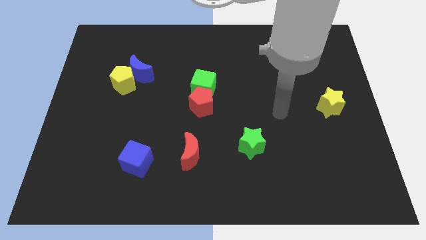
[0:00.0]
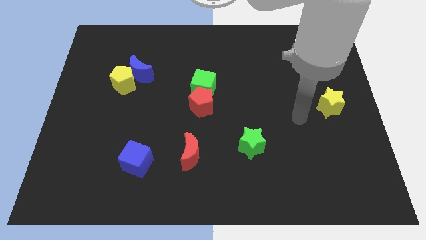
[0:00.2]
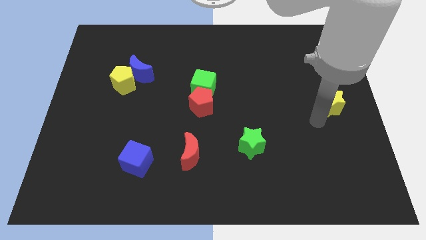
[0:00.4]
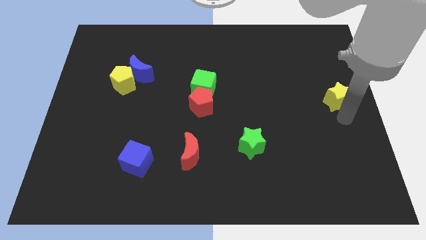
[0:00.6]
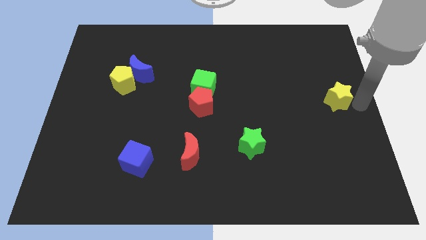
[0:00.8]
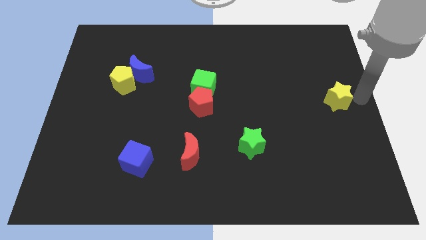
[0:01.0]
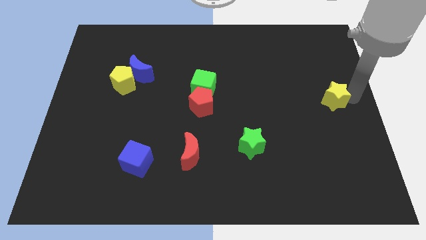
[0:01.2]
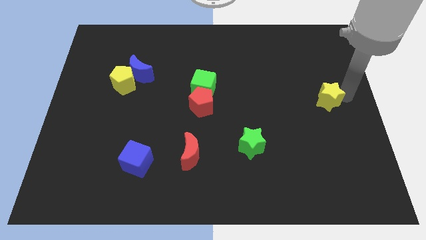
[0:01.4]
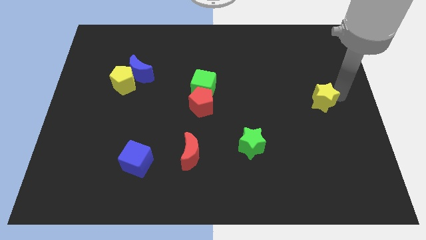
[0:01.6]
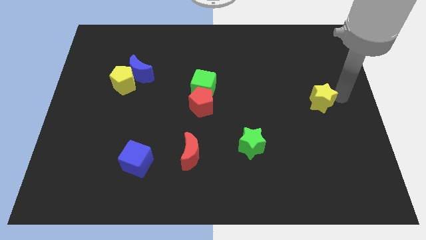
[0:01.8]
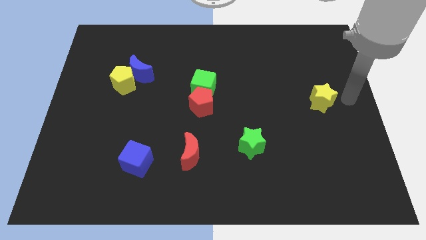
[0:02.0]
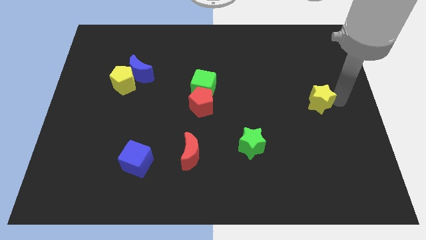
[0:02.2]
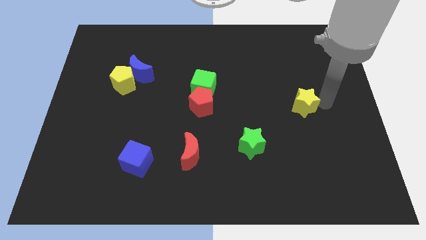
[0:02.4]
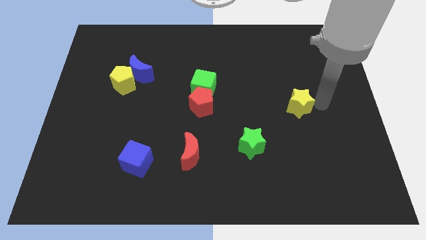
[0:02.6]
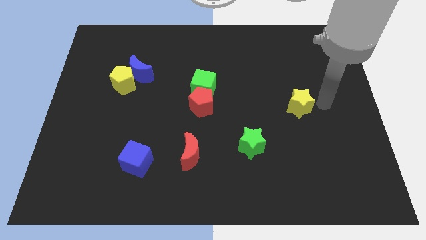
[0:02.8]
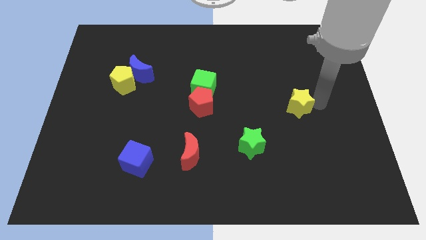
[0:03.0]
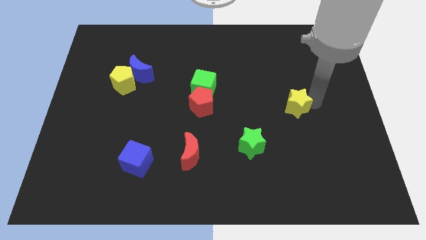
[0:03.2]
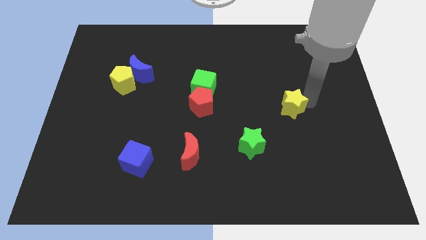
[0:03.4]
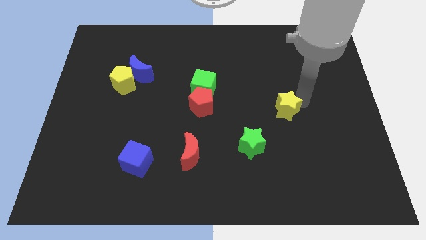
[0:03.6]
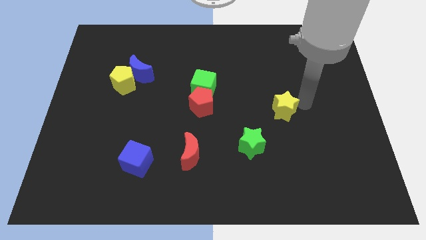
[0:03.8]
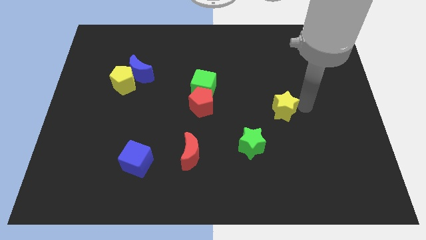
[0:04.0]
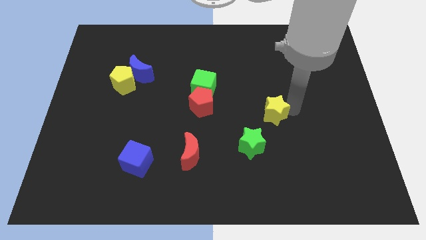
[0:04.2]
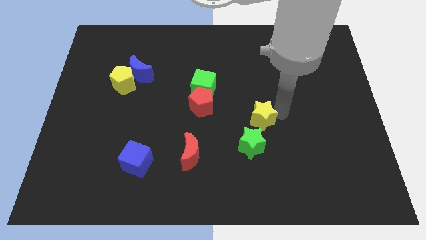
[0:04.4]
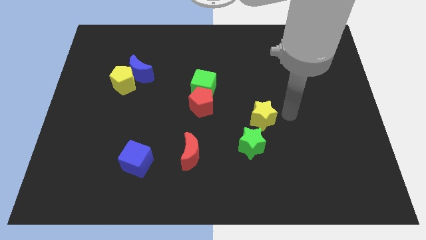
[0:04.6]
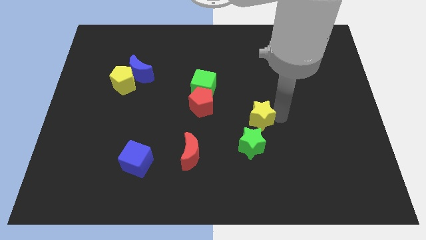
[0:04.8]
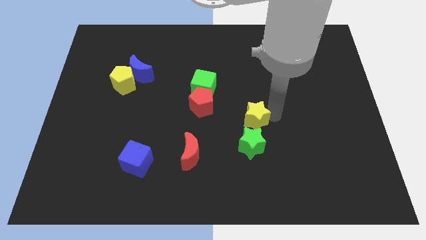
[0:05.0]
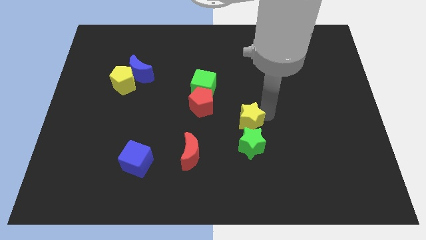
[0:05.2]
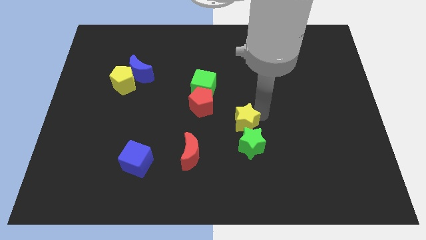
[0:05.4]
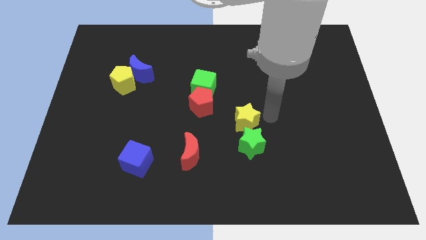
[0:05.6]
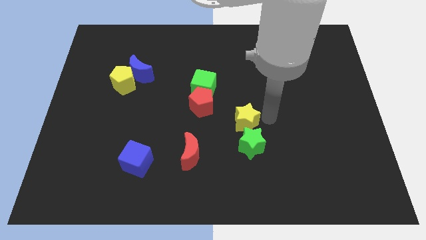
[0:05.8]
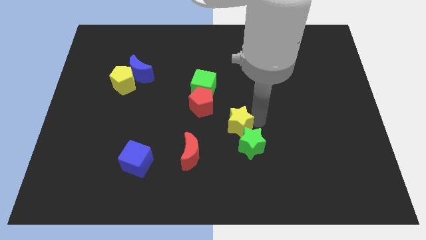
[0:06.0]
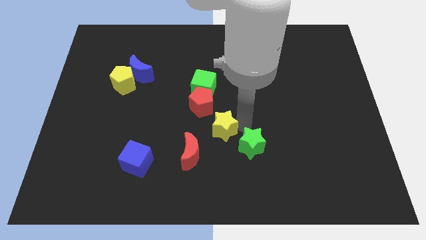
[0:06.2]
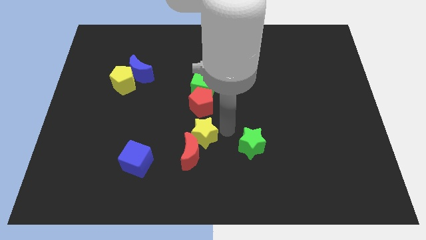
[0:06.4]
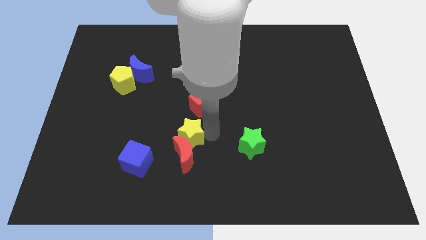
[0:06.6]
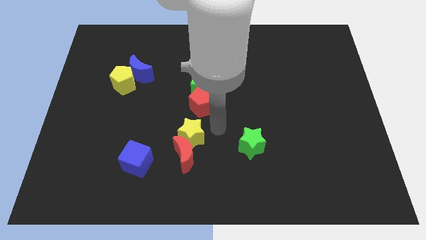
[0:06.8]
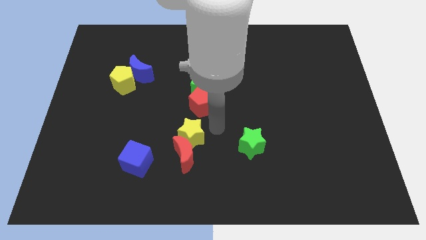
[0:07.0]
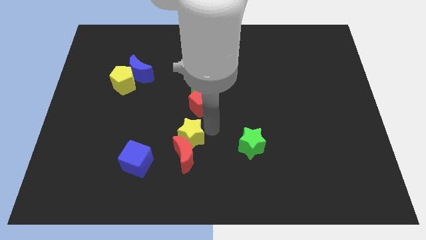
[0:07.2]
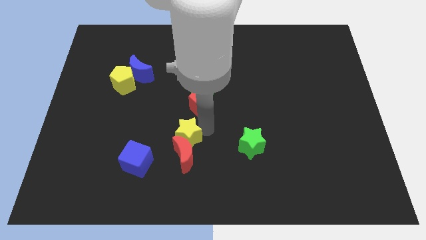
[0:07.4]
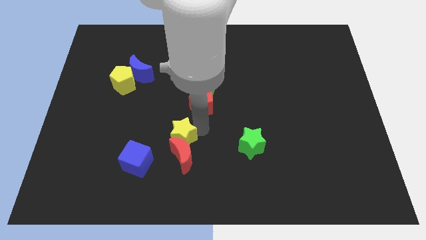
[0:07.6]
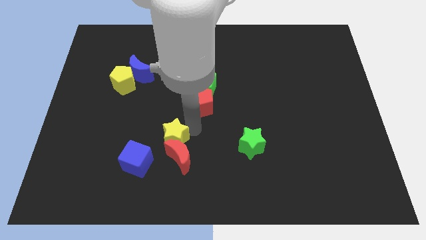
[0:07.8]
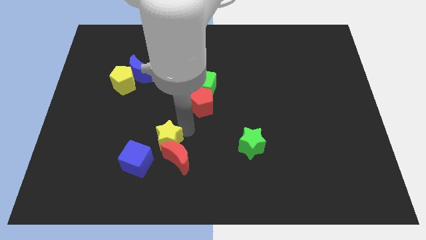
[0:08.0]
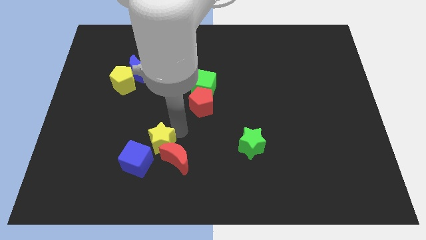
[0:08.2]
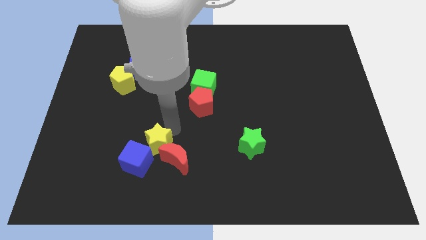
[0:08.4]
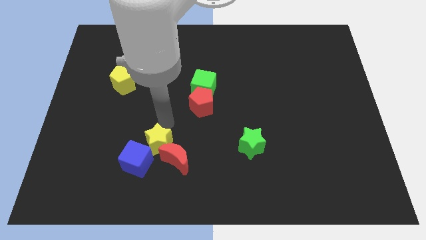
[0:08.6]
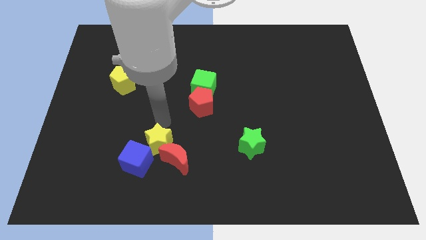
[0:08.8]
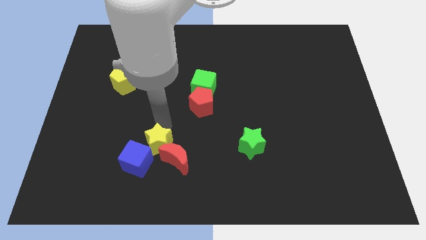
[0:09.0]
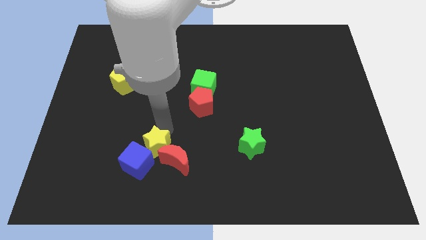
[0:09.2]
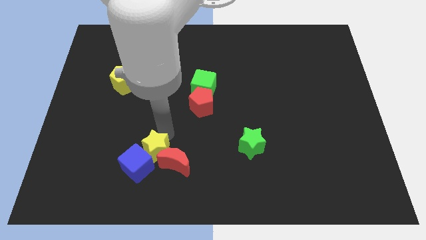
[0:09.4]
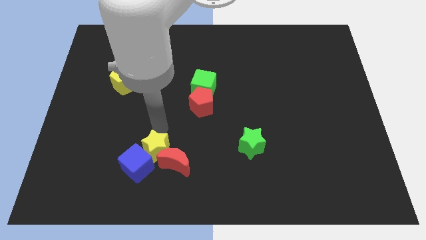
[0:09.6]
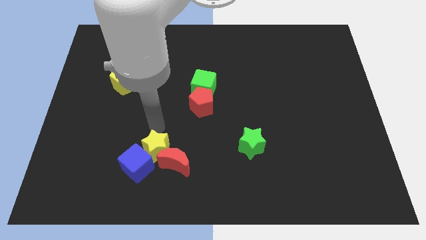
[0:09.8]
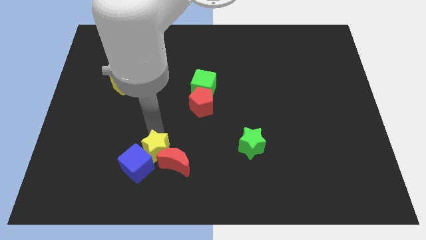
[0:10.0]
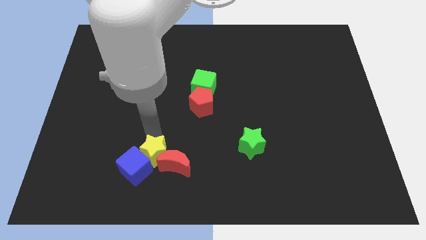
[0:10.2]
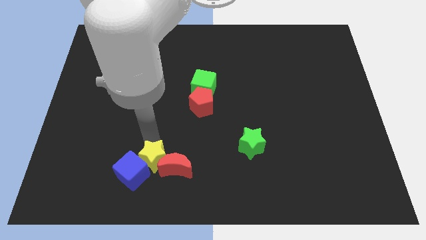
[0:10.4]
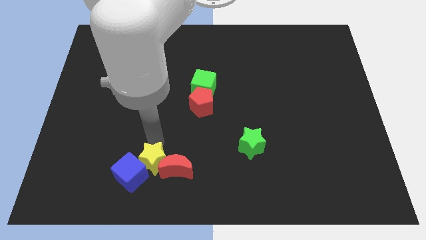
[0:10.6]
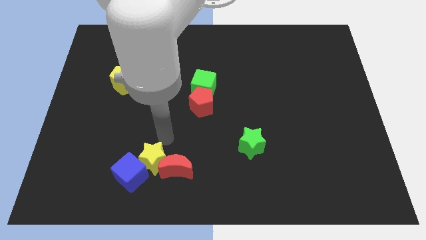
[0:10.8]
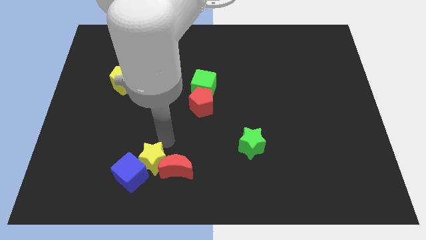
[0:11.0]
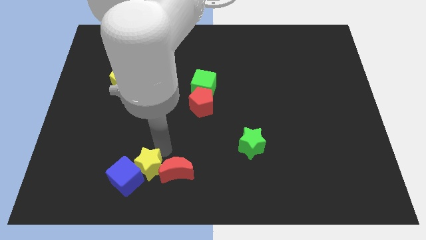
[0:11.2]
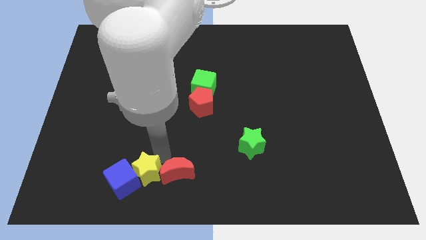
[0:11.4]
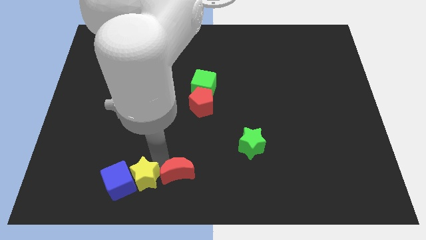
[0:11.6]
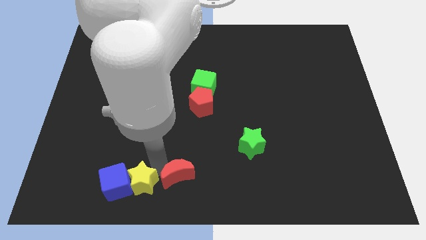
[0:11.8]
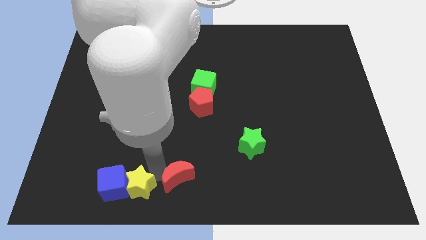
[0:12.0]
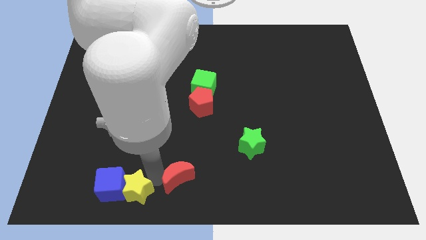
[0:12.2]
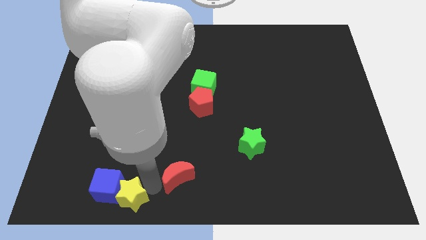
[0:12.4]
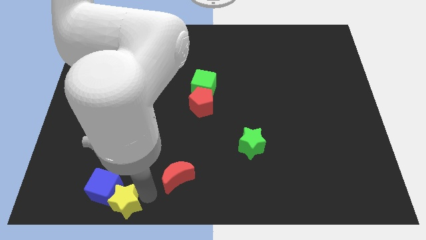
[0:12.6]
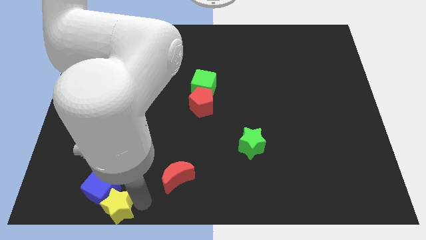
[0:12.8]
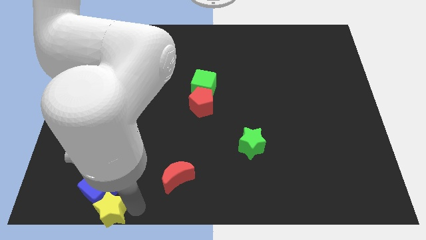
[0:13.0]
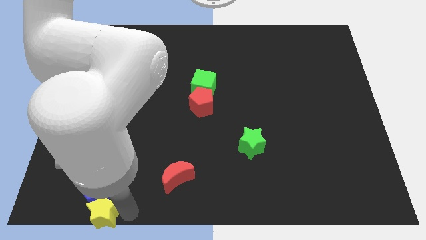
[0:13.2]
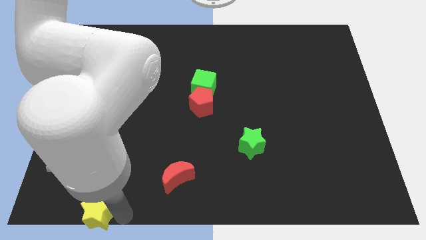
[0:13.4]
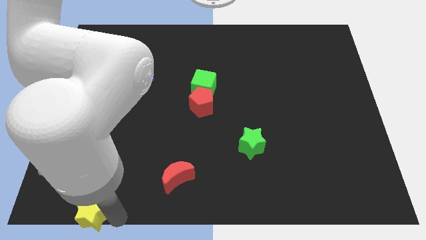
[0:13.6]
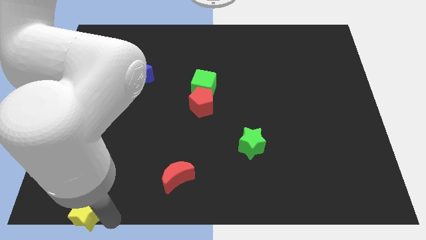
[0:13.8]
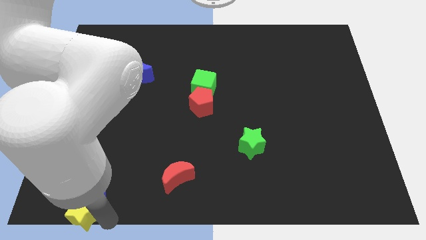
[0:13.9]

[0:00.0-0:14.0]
put the yellow star to the lower left corner

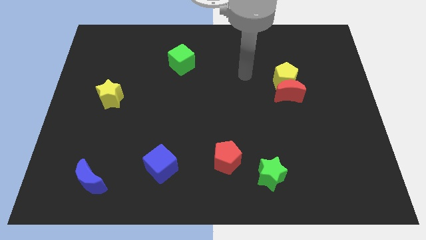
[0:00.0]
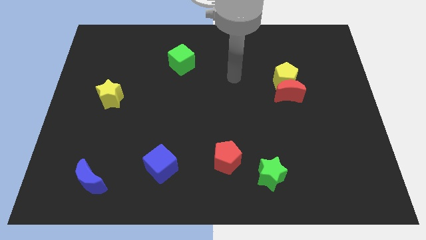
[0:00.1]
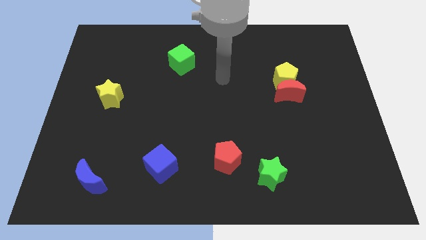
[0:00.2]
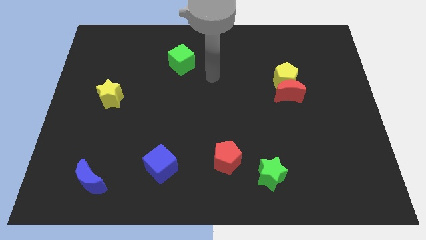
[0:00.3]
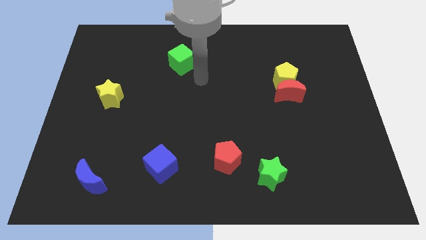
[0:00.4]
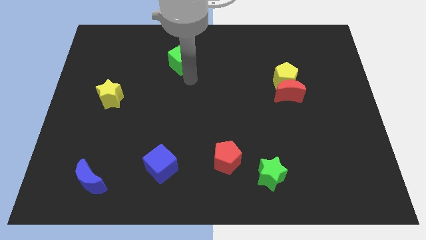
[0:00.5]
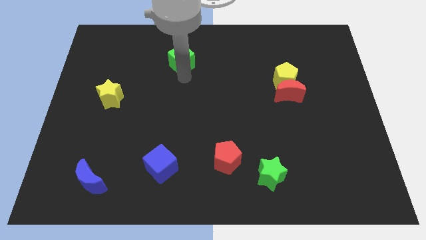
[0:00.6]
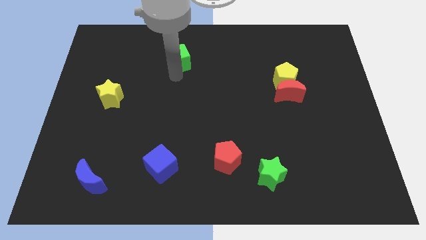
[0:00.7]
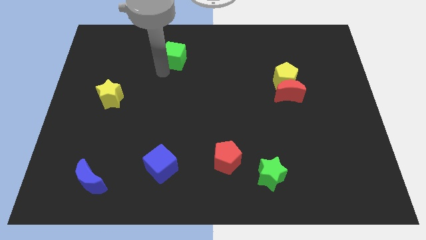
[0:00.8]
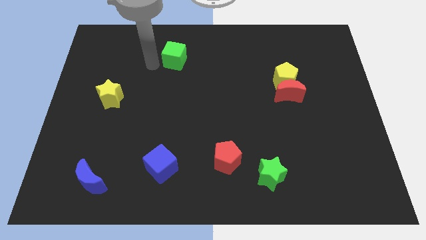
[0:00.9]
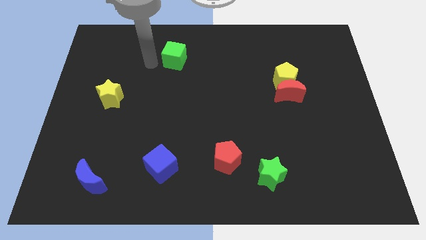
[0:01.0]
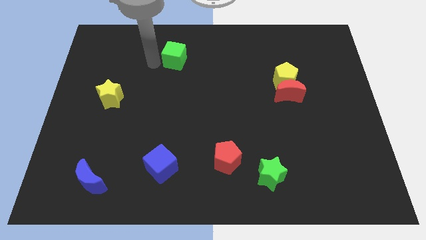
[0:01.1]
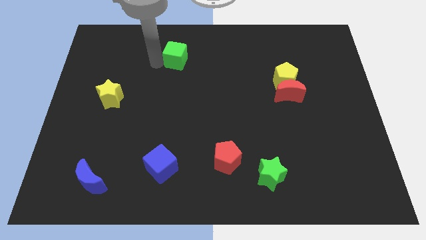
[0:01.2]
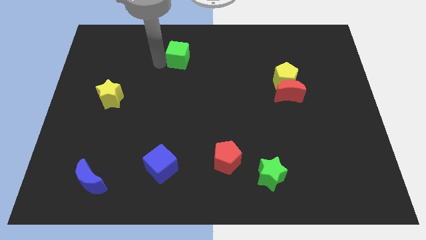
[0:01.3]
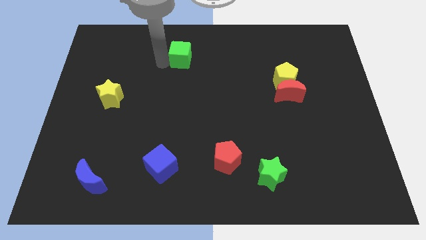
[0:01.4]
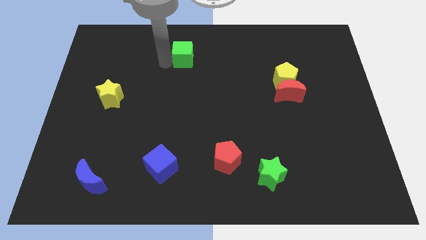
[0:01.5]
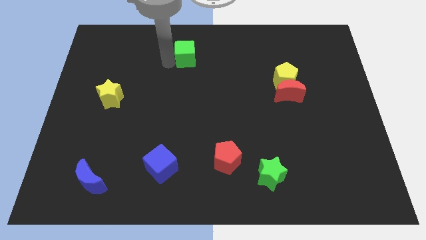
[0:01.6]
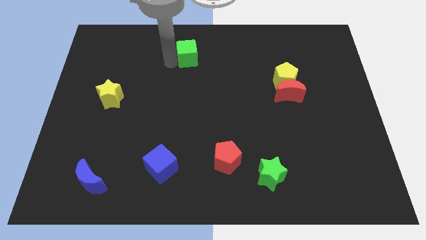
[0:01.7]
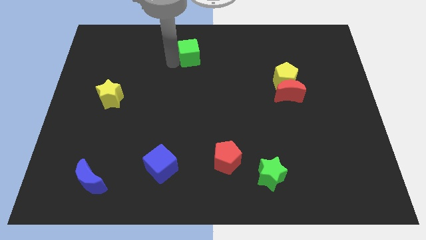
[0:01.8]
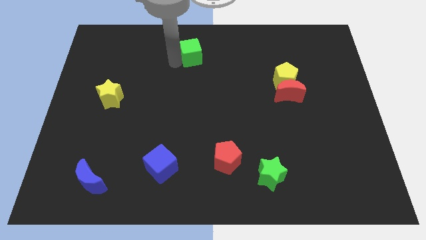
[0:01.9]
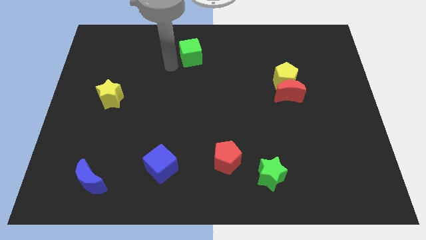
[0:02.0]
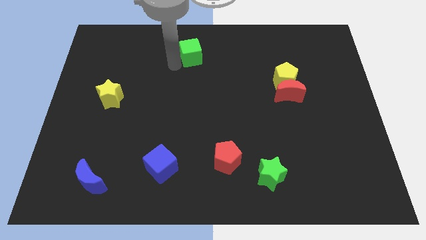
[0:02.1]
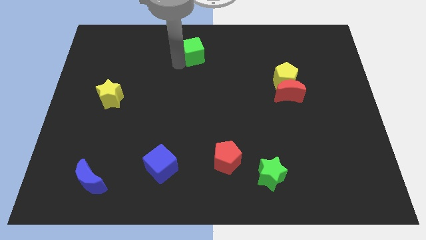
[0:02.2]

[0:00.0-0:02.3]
move the green cube to the towards your base
